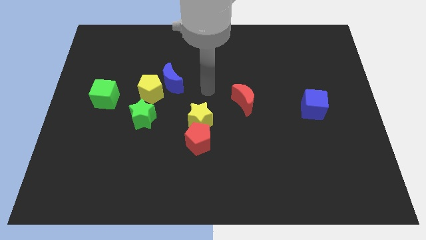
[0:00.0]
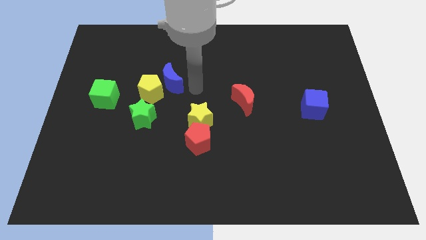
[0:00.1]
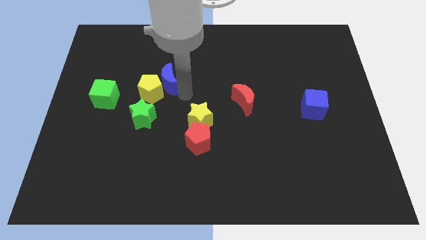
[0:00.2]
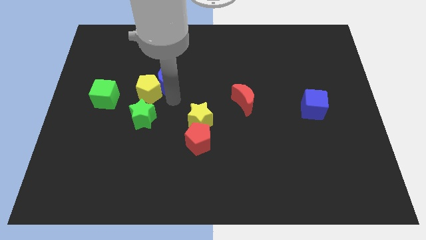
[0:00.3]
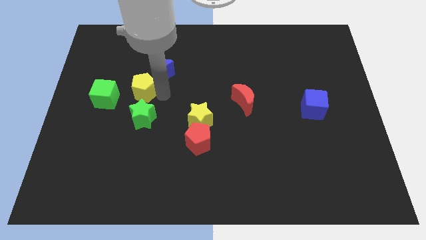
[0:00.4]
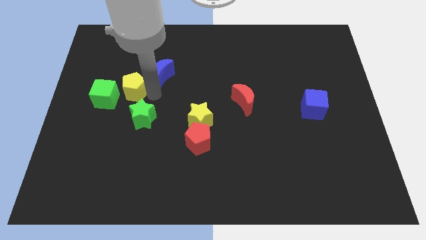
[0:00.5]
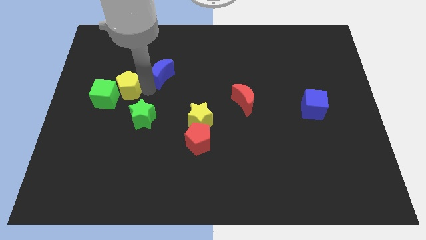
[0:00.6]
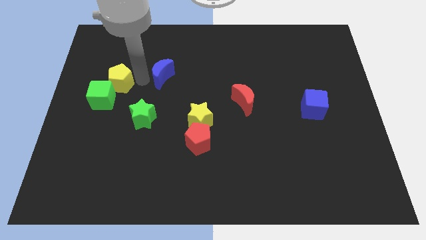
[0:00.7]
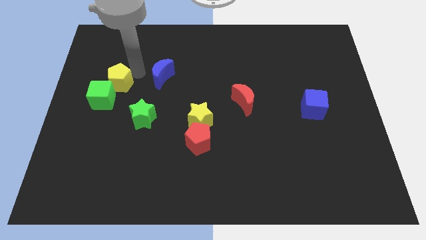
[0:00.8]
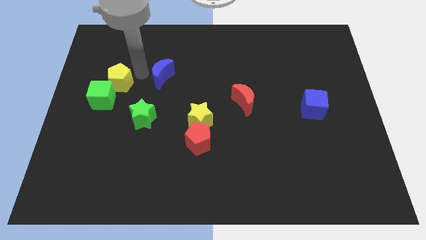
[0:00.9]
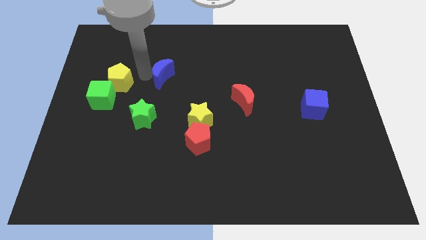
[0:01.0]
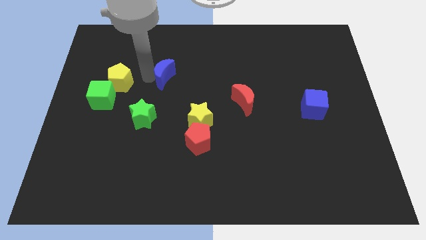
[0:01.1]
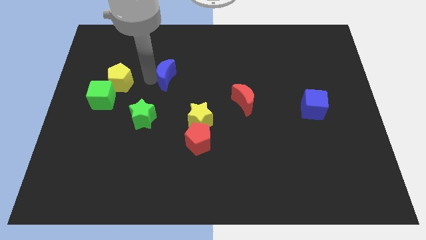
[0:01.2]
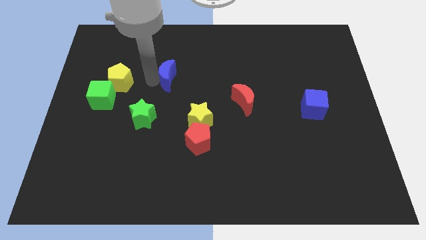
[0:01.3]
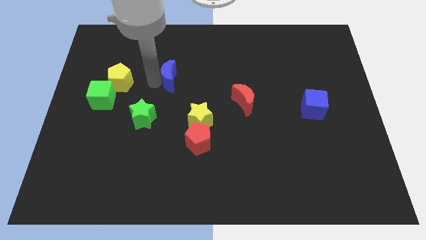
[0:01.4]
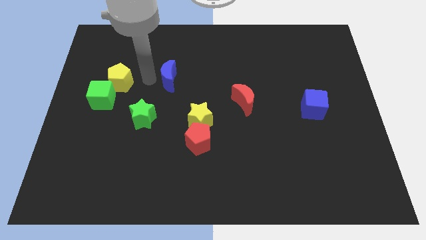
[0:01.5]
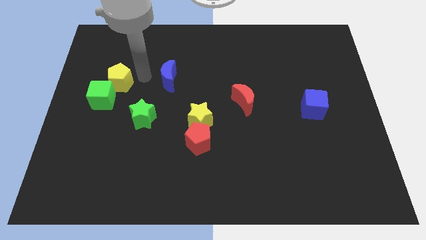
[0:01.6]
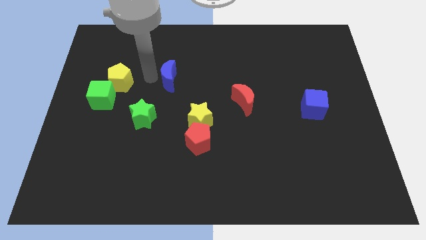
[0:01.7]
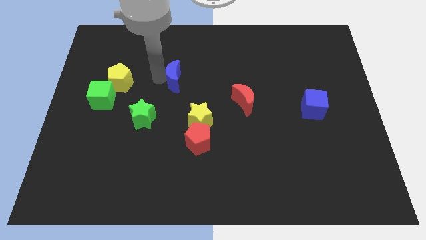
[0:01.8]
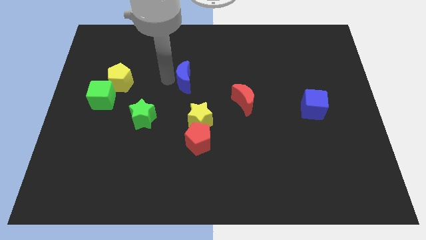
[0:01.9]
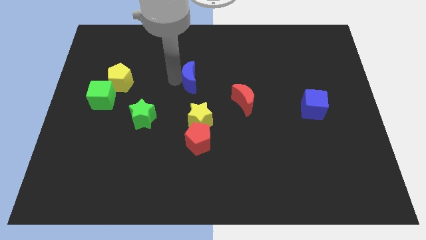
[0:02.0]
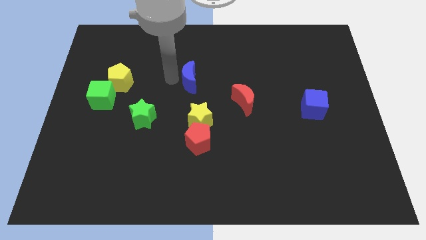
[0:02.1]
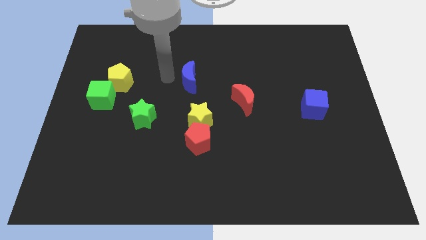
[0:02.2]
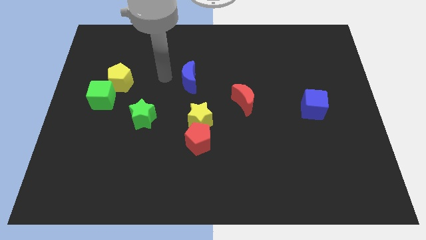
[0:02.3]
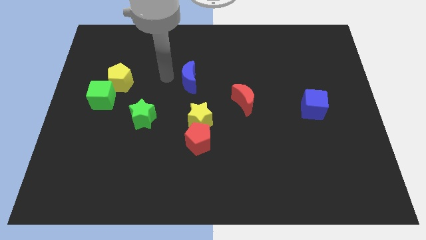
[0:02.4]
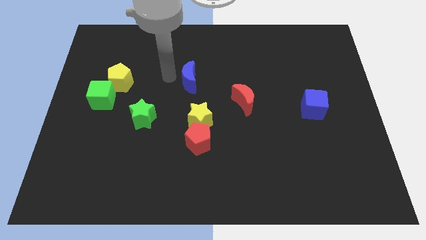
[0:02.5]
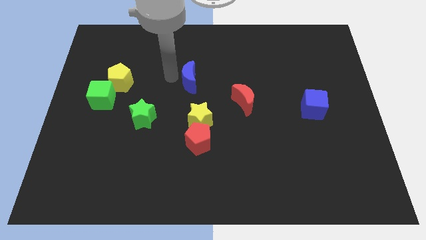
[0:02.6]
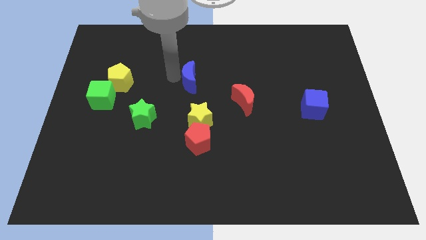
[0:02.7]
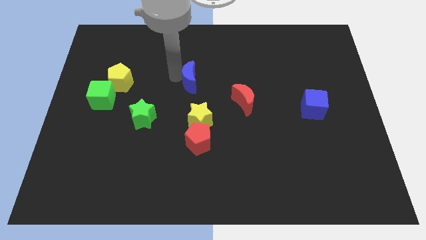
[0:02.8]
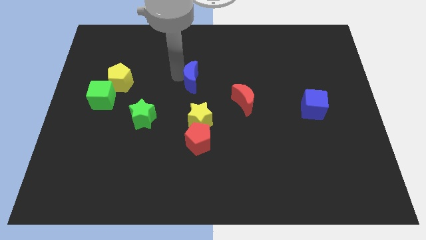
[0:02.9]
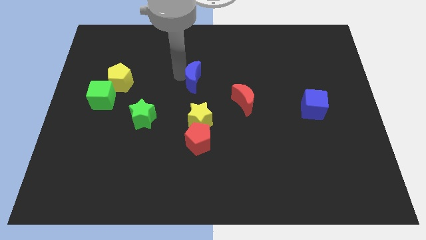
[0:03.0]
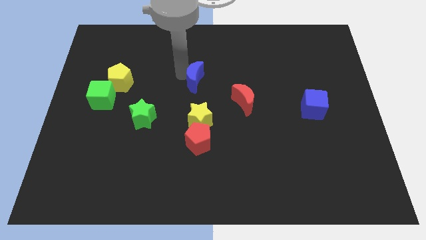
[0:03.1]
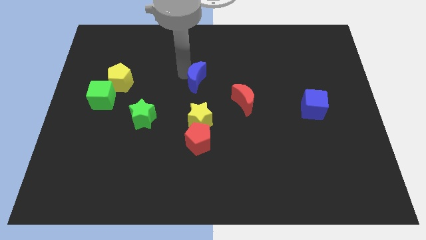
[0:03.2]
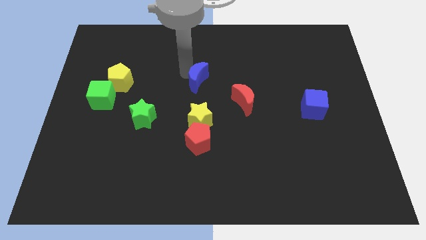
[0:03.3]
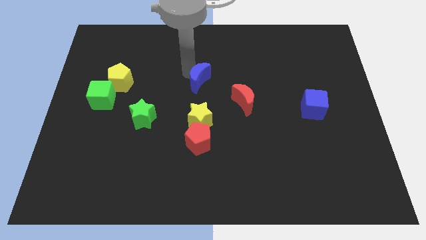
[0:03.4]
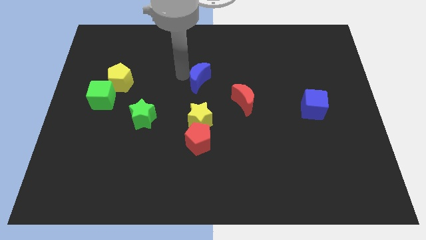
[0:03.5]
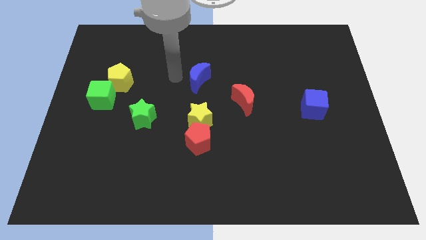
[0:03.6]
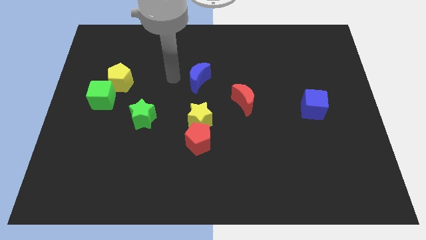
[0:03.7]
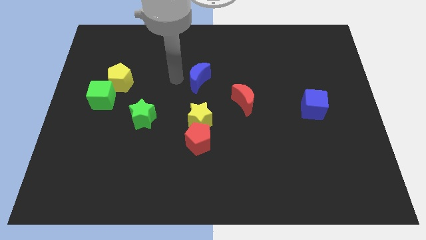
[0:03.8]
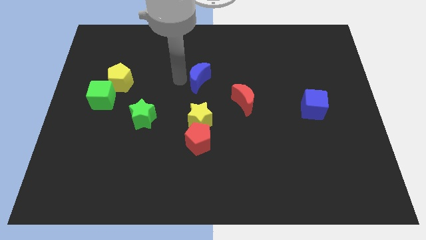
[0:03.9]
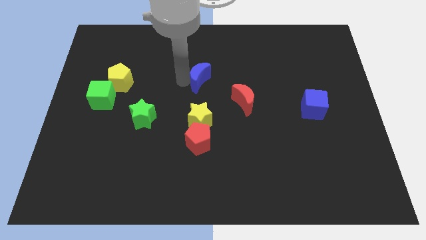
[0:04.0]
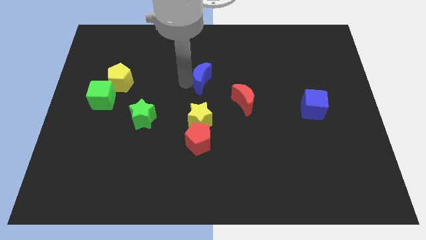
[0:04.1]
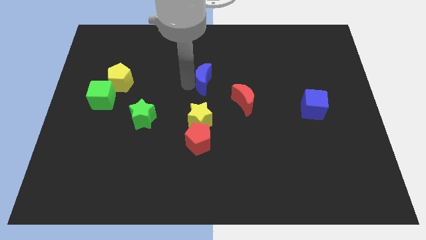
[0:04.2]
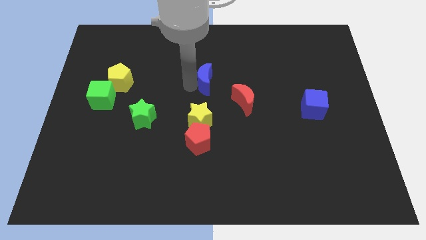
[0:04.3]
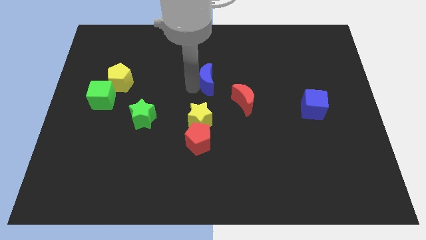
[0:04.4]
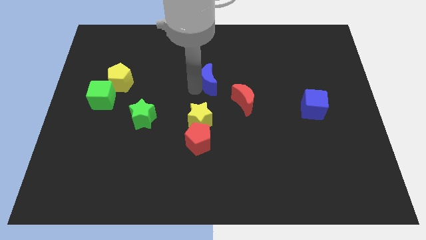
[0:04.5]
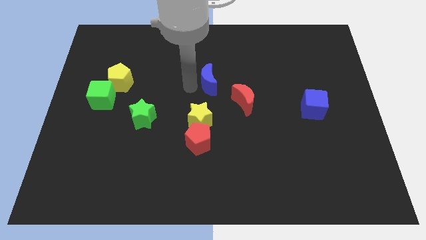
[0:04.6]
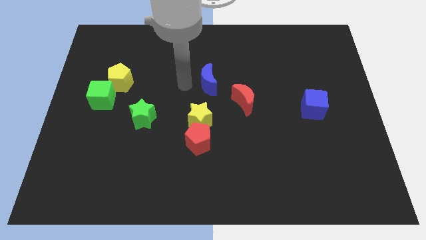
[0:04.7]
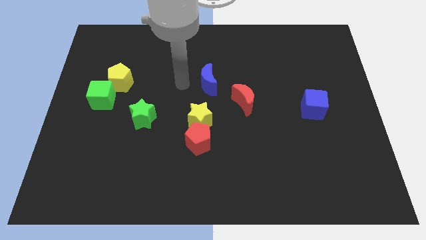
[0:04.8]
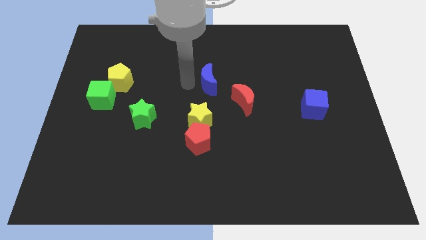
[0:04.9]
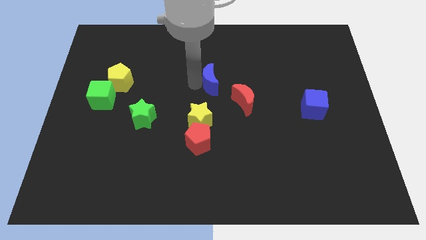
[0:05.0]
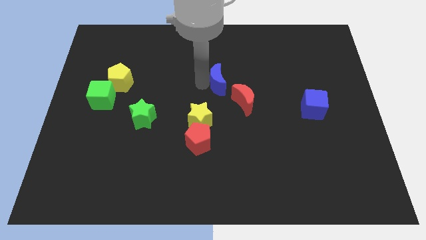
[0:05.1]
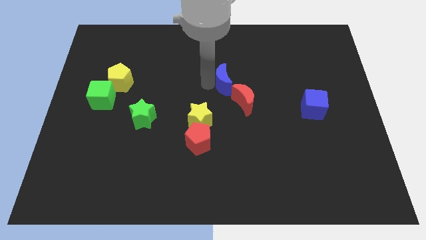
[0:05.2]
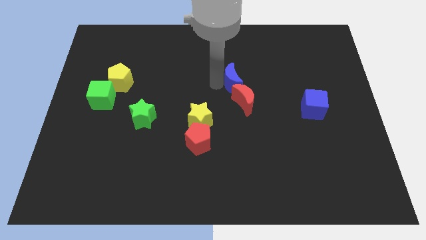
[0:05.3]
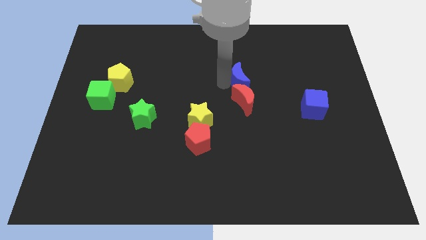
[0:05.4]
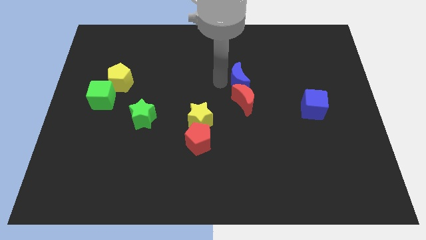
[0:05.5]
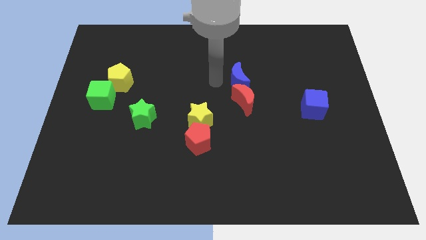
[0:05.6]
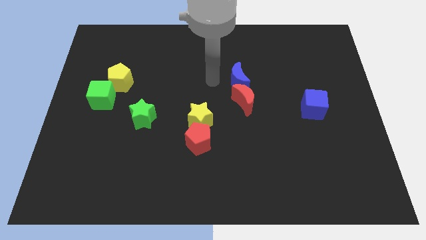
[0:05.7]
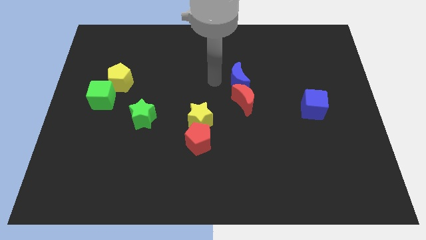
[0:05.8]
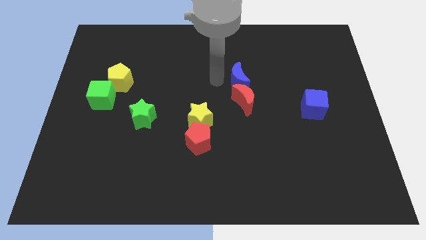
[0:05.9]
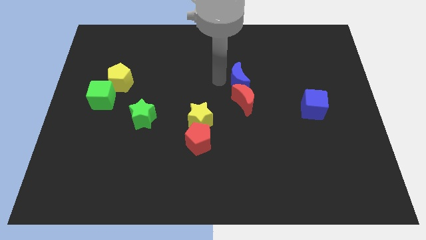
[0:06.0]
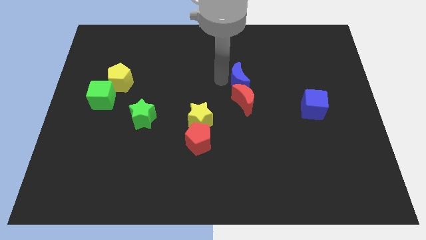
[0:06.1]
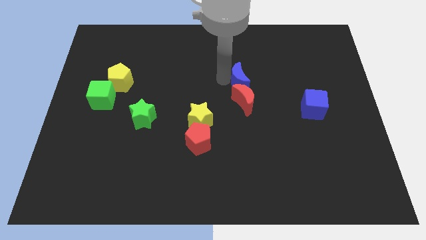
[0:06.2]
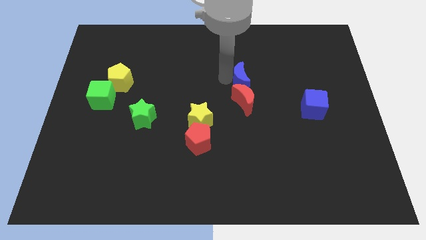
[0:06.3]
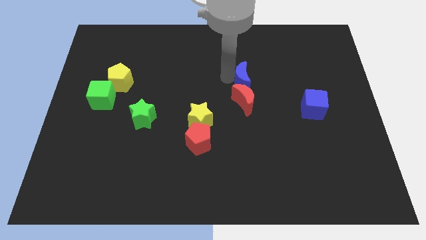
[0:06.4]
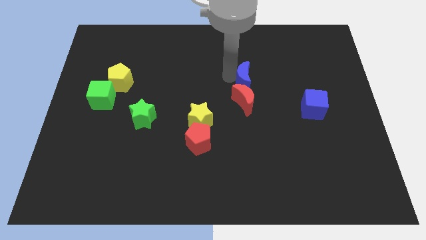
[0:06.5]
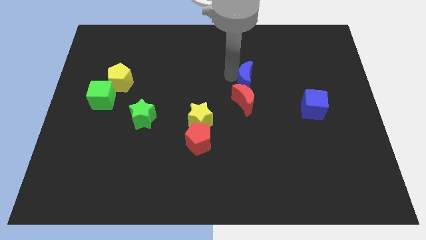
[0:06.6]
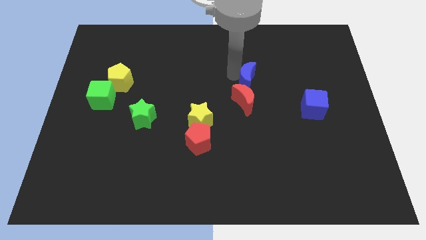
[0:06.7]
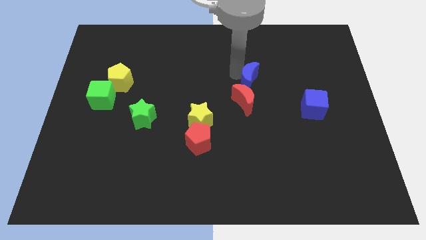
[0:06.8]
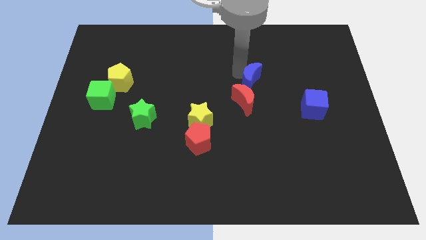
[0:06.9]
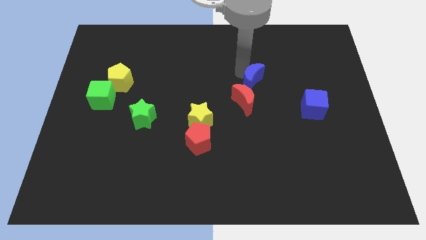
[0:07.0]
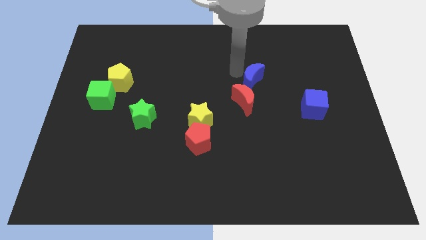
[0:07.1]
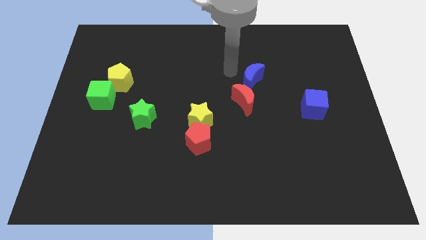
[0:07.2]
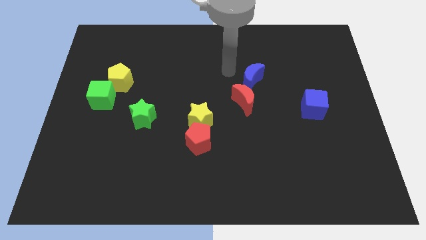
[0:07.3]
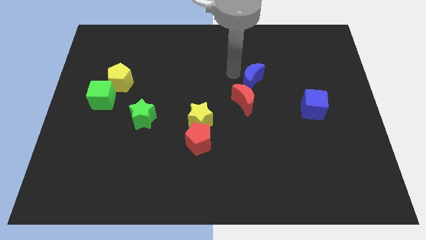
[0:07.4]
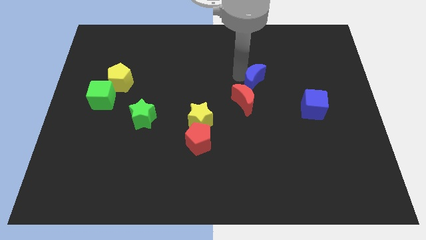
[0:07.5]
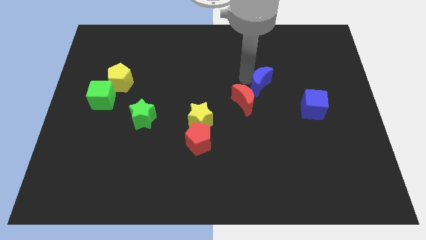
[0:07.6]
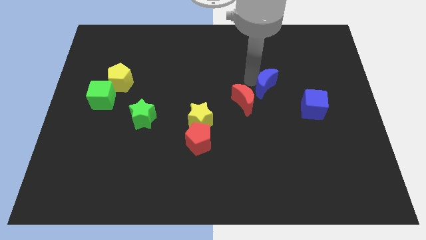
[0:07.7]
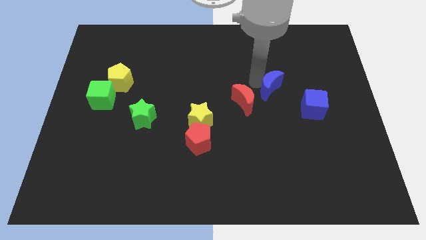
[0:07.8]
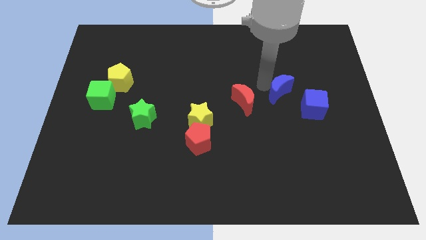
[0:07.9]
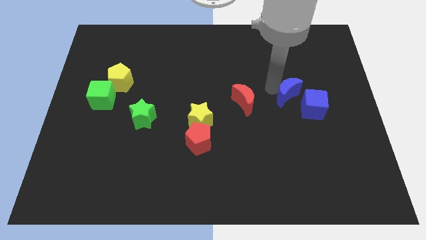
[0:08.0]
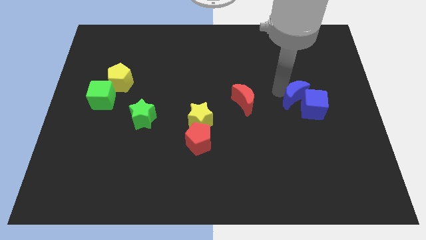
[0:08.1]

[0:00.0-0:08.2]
put the blue moon to the blue cube
